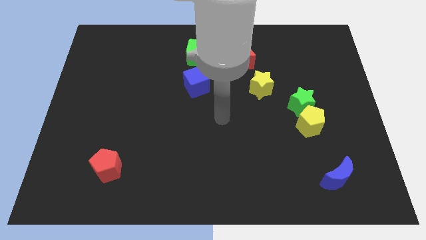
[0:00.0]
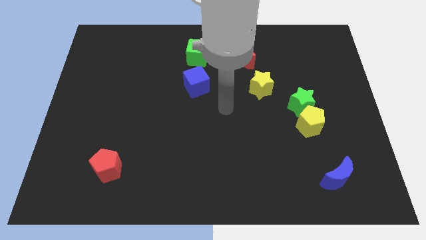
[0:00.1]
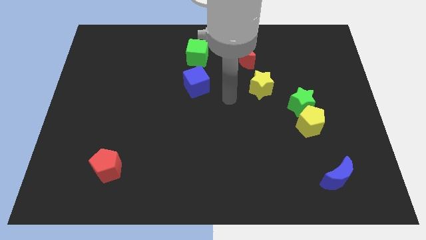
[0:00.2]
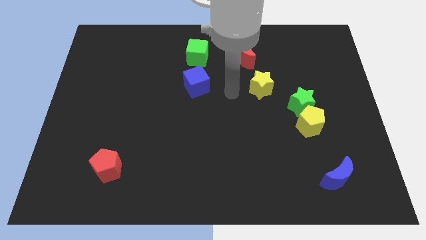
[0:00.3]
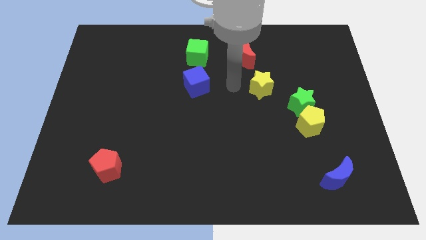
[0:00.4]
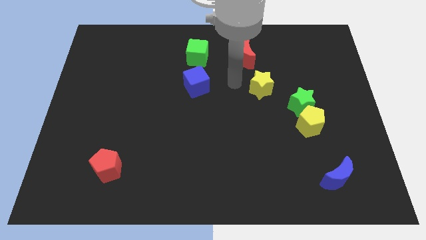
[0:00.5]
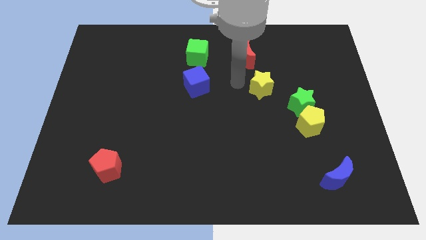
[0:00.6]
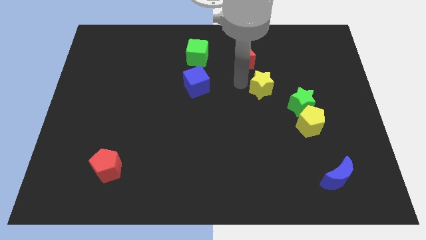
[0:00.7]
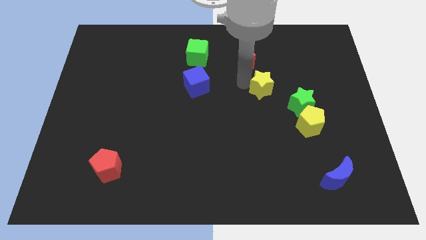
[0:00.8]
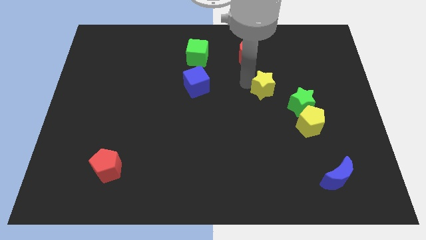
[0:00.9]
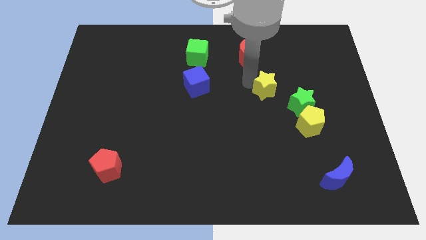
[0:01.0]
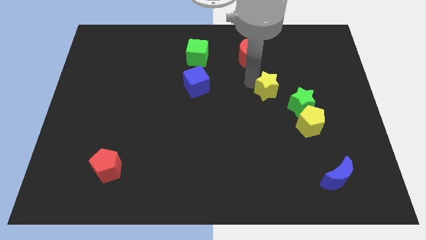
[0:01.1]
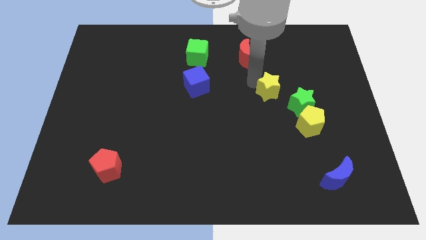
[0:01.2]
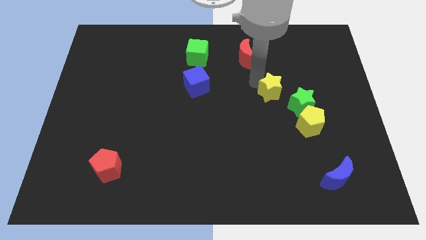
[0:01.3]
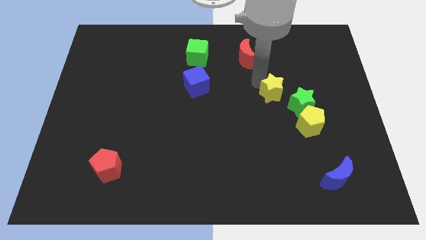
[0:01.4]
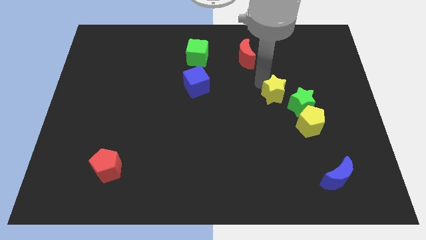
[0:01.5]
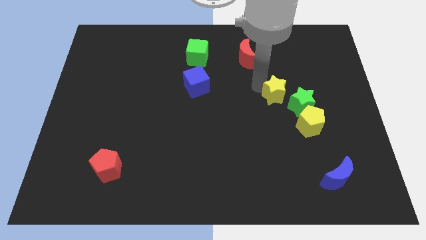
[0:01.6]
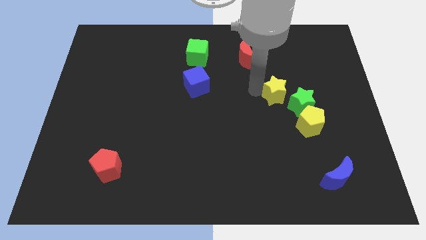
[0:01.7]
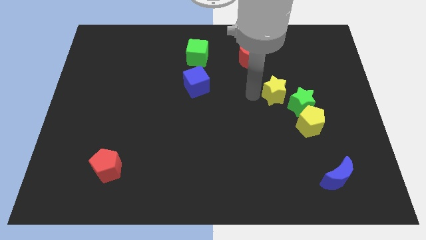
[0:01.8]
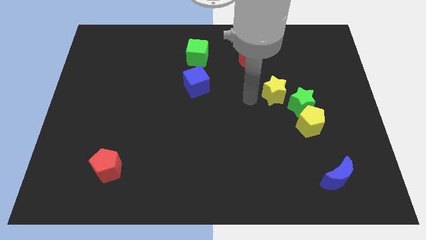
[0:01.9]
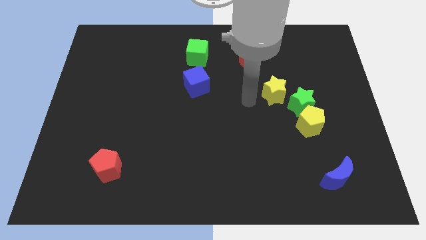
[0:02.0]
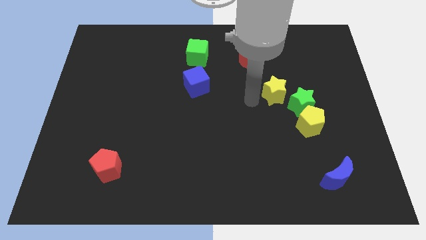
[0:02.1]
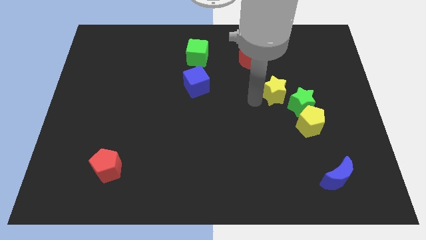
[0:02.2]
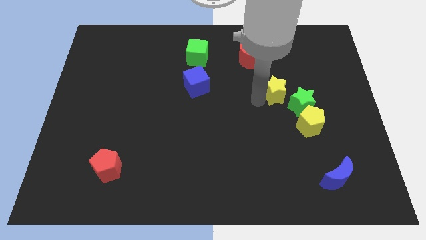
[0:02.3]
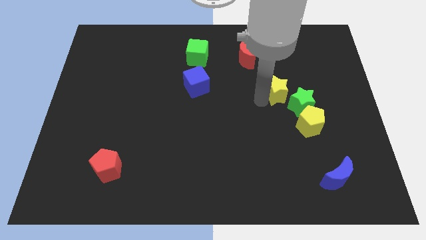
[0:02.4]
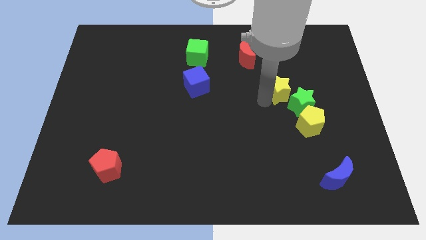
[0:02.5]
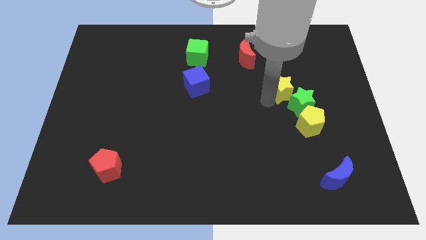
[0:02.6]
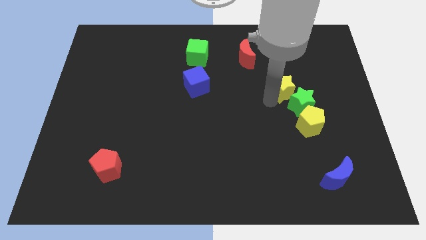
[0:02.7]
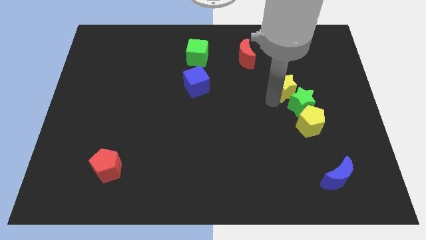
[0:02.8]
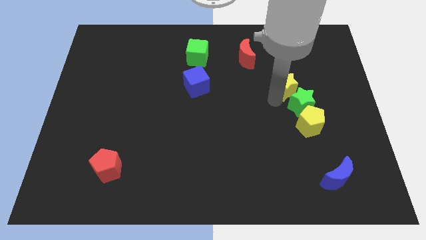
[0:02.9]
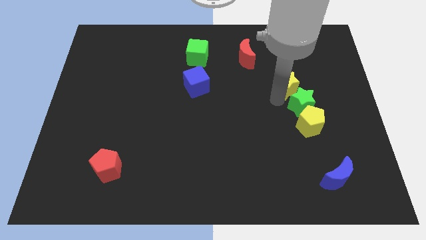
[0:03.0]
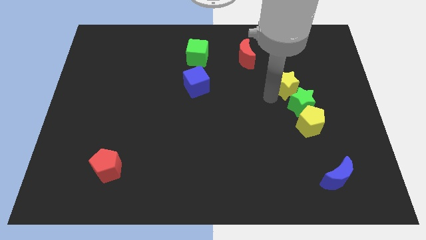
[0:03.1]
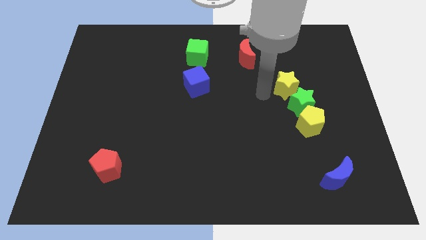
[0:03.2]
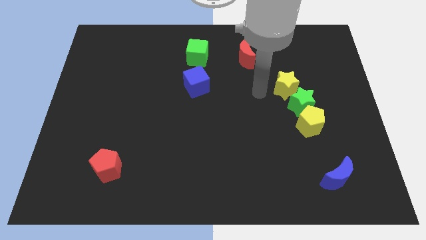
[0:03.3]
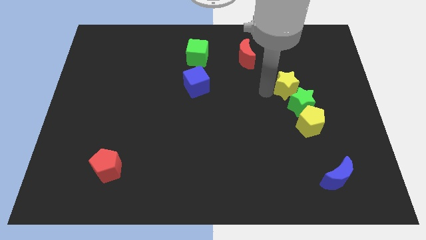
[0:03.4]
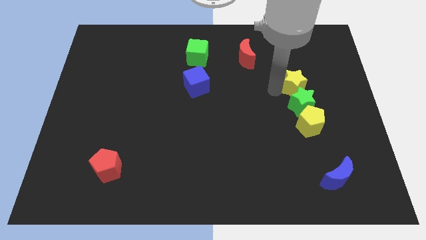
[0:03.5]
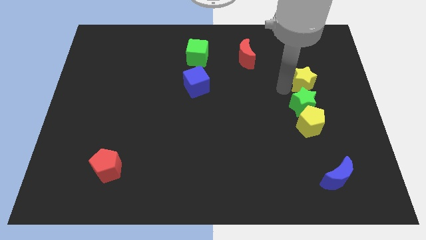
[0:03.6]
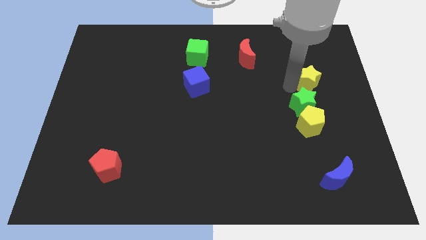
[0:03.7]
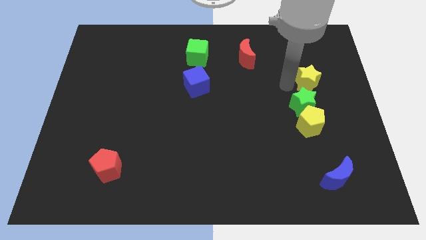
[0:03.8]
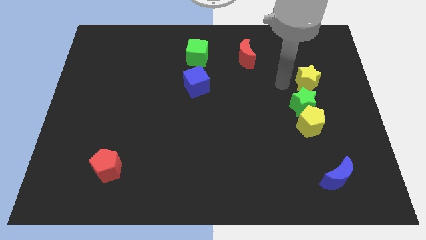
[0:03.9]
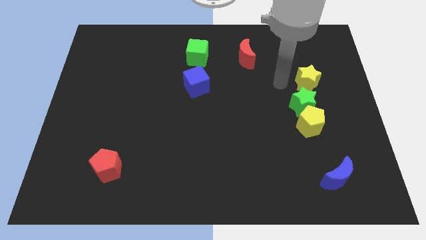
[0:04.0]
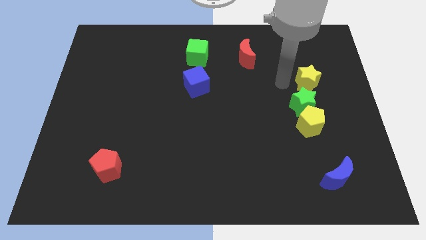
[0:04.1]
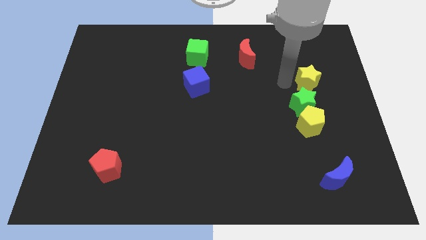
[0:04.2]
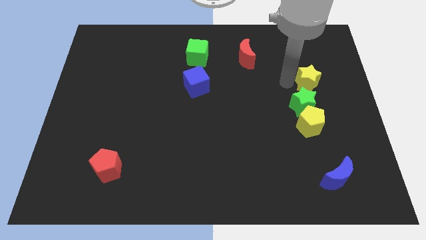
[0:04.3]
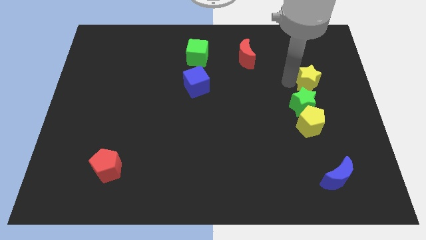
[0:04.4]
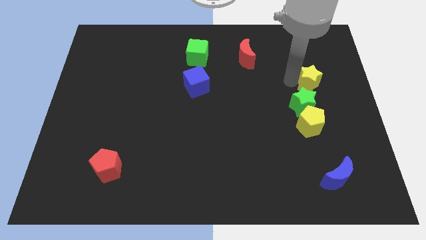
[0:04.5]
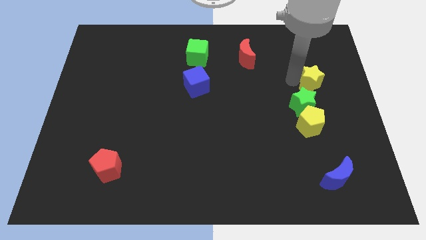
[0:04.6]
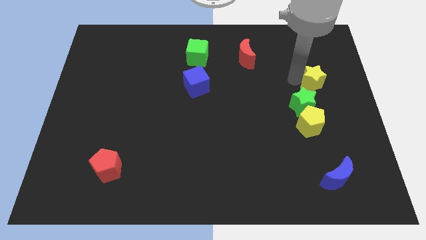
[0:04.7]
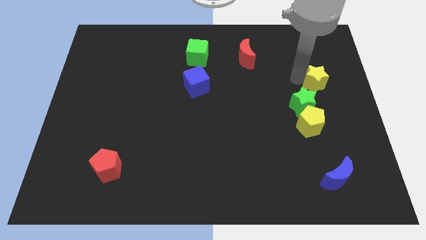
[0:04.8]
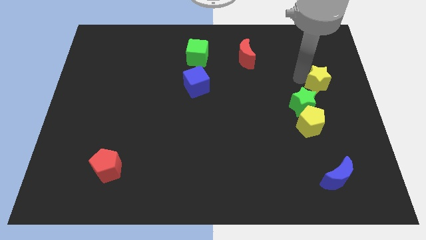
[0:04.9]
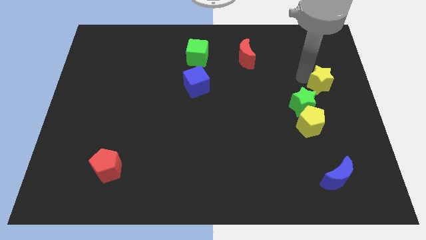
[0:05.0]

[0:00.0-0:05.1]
move the yellow star to the right side of the board

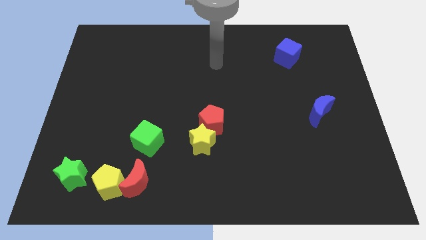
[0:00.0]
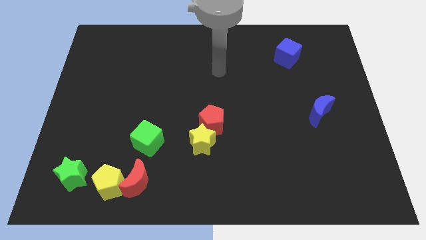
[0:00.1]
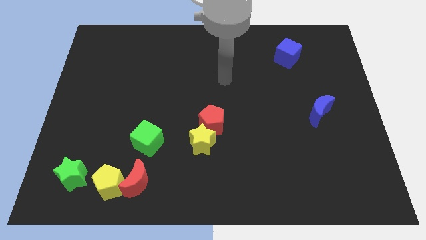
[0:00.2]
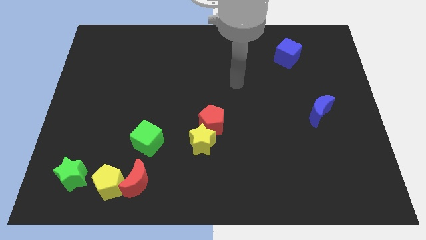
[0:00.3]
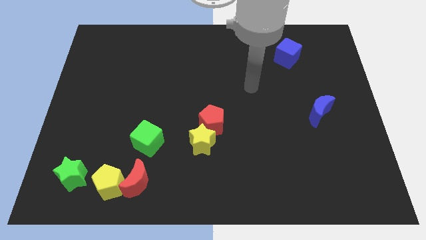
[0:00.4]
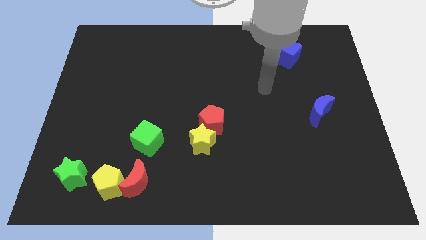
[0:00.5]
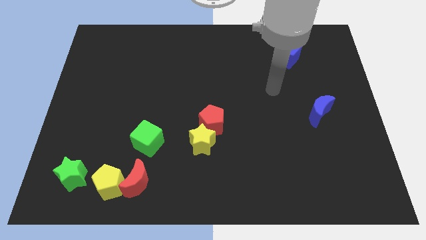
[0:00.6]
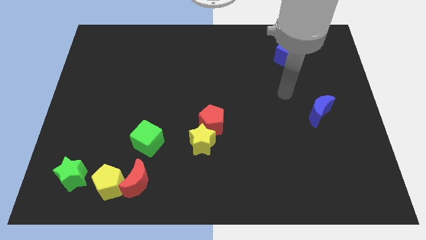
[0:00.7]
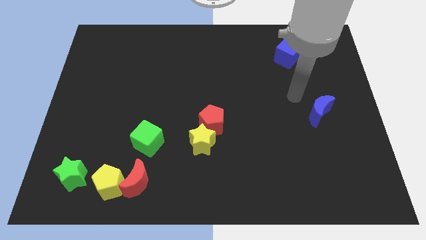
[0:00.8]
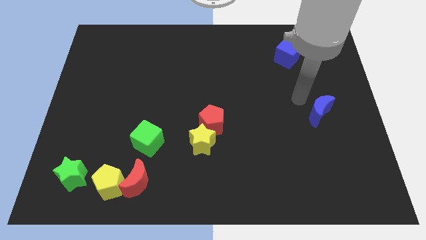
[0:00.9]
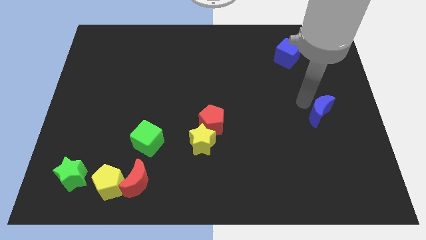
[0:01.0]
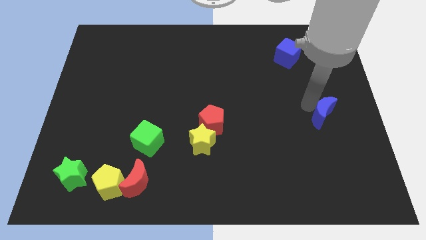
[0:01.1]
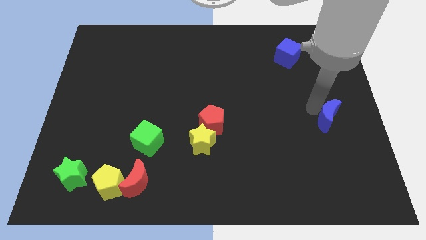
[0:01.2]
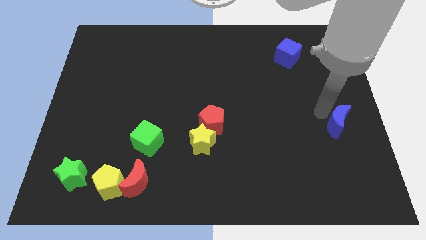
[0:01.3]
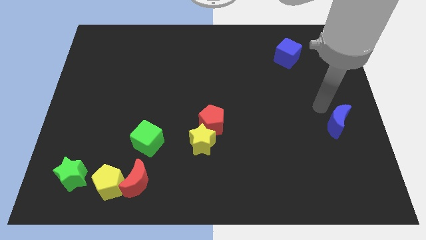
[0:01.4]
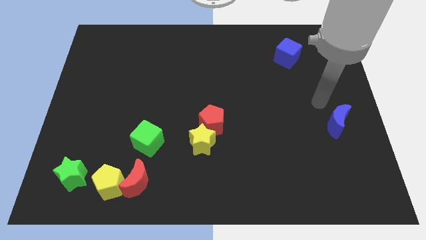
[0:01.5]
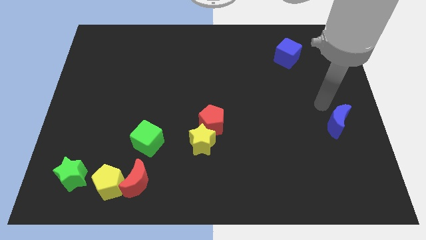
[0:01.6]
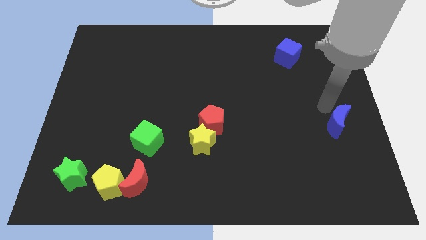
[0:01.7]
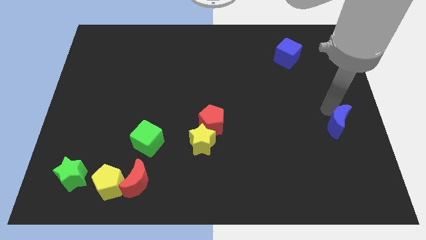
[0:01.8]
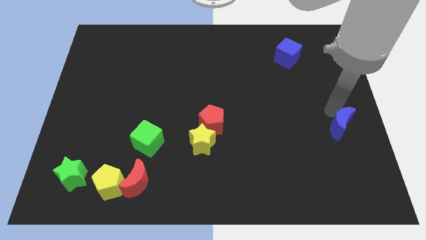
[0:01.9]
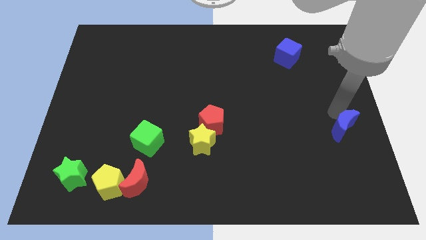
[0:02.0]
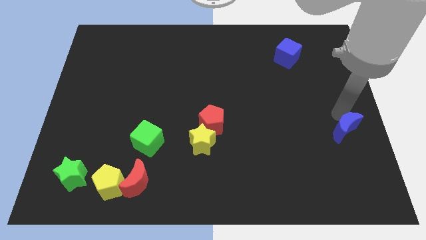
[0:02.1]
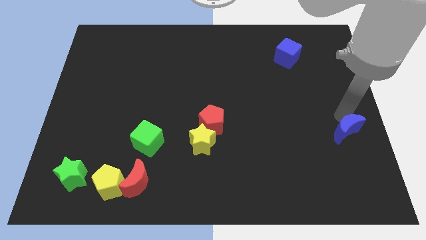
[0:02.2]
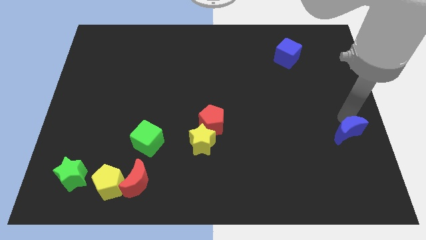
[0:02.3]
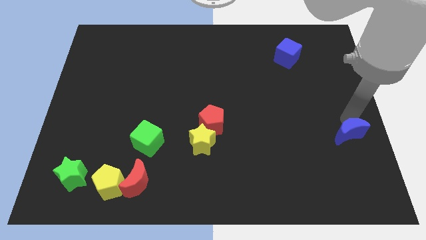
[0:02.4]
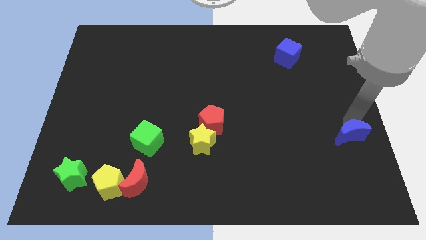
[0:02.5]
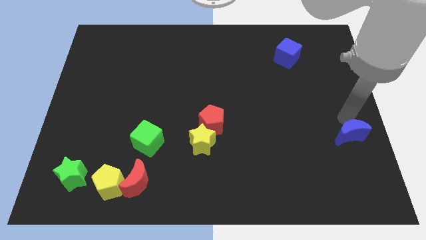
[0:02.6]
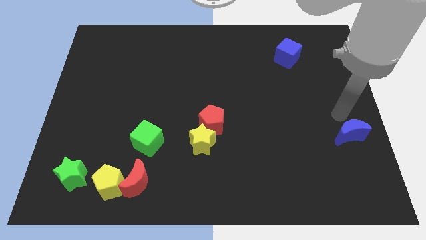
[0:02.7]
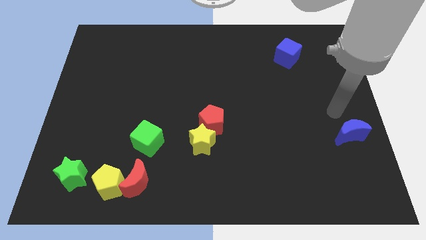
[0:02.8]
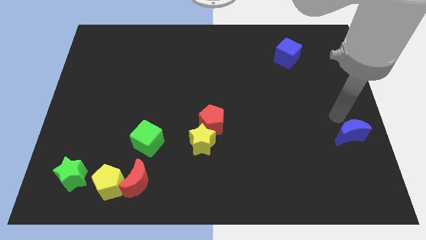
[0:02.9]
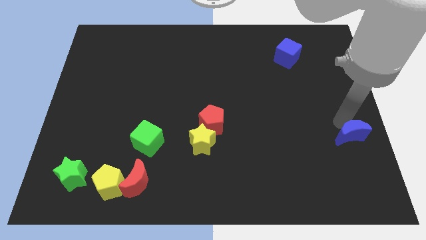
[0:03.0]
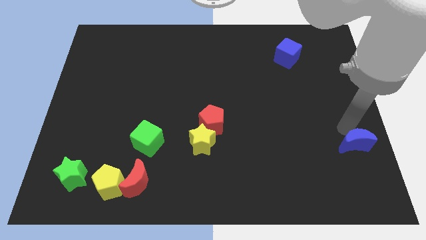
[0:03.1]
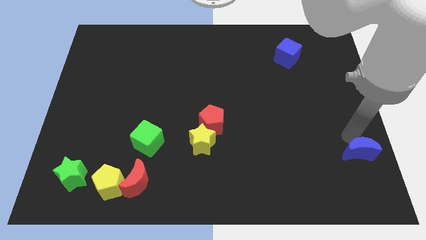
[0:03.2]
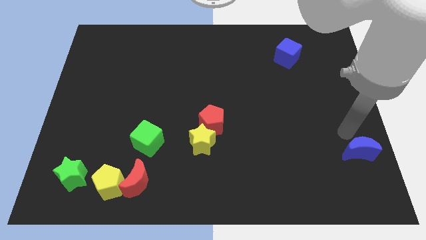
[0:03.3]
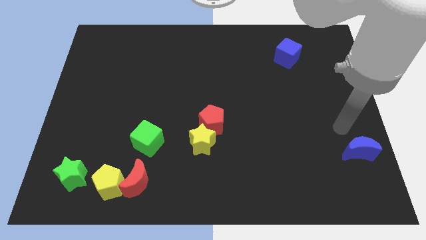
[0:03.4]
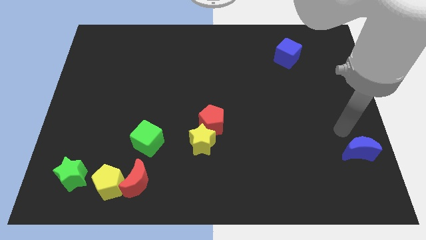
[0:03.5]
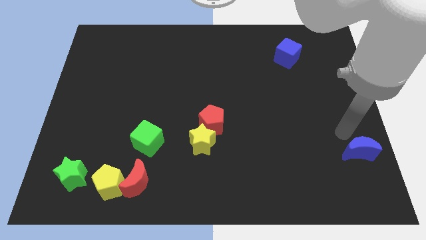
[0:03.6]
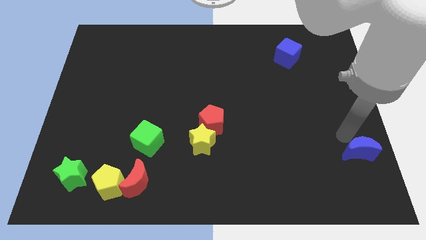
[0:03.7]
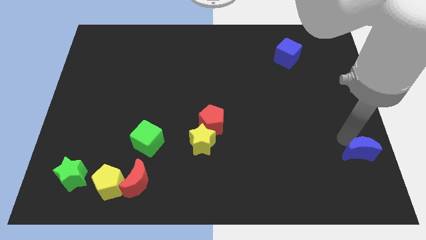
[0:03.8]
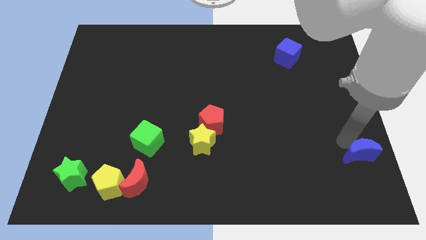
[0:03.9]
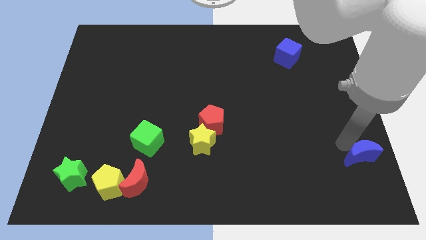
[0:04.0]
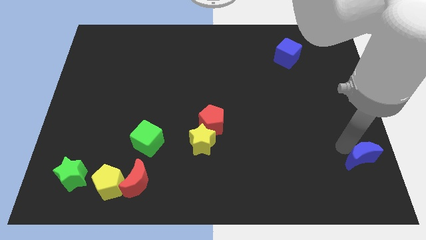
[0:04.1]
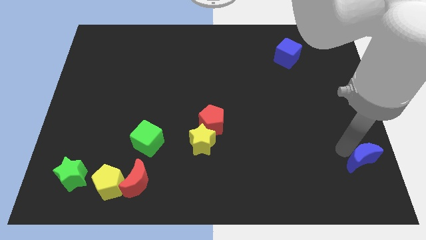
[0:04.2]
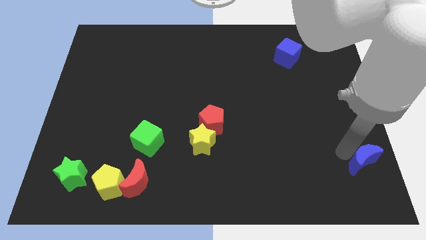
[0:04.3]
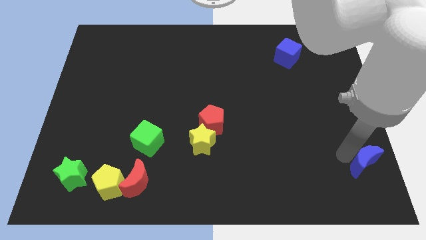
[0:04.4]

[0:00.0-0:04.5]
put the blue moon to the bottom right
